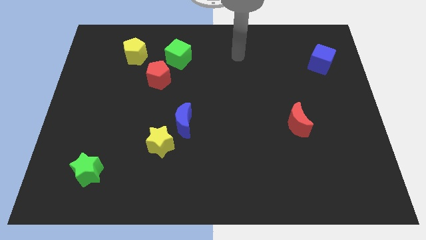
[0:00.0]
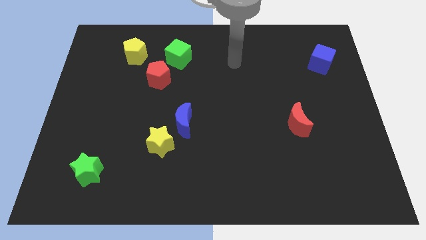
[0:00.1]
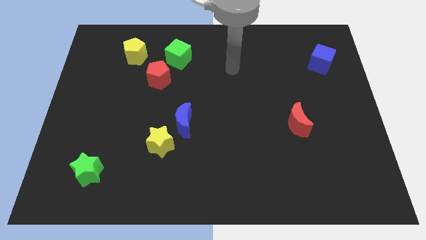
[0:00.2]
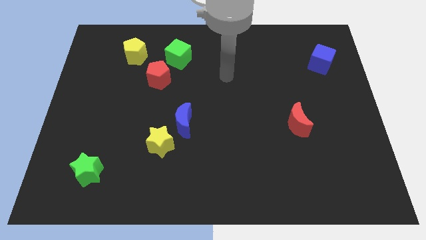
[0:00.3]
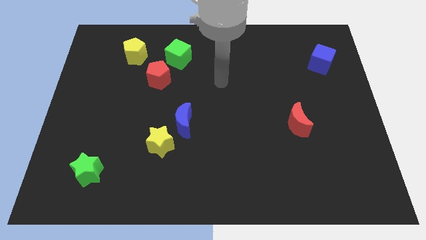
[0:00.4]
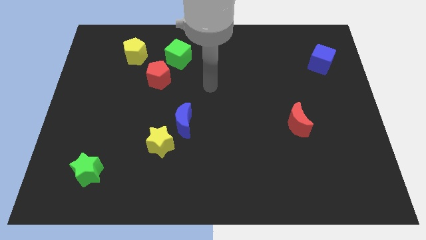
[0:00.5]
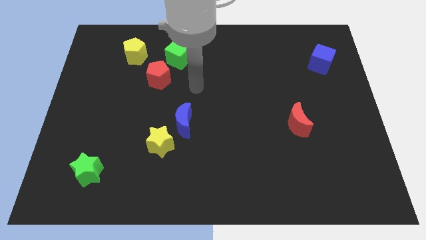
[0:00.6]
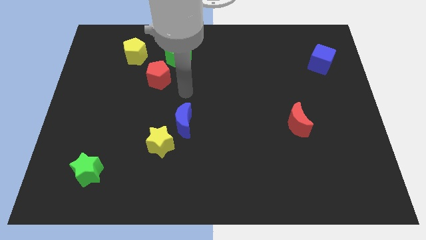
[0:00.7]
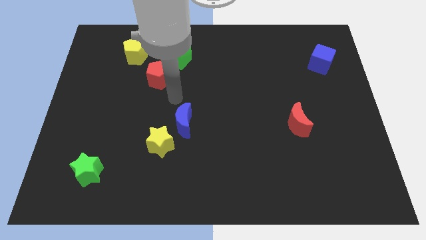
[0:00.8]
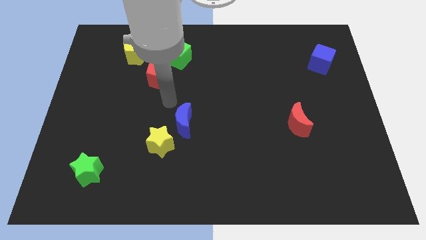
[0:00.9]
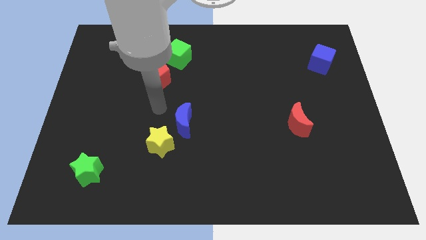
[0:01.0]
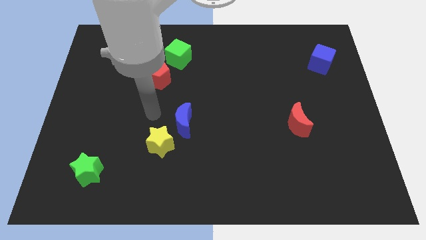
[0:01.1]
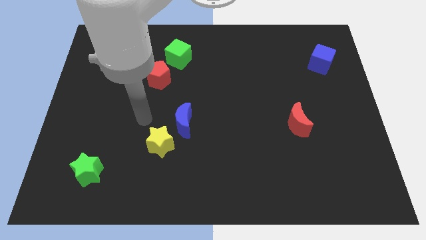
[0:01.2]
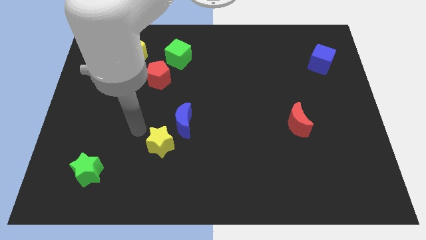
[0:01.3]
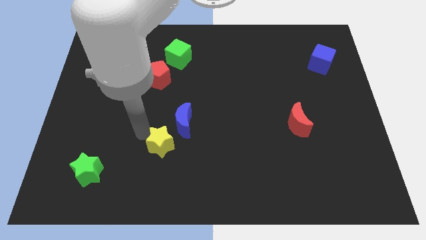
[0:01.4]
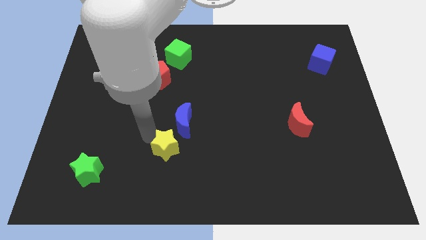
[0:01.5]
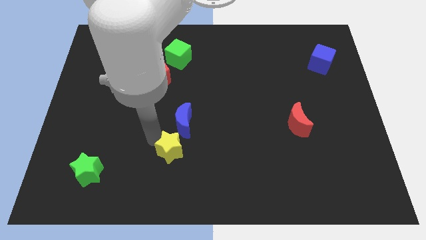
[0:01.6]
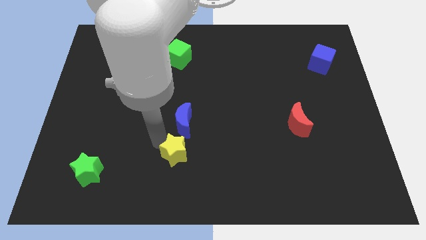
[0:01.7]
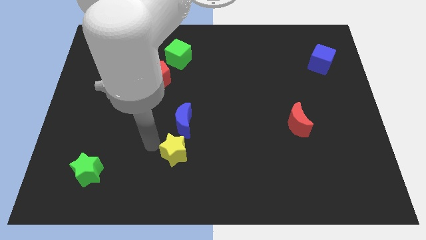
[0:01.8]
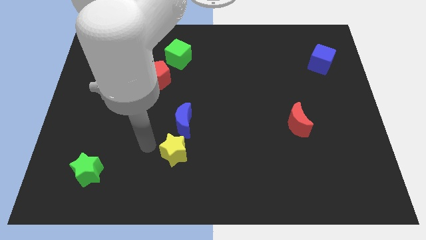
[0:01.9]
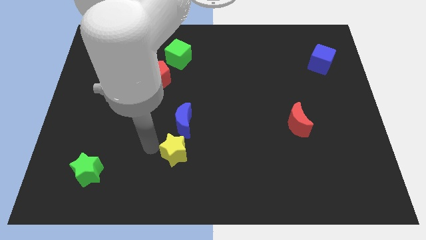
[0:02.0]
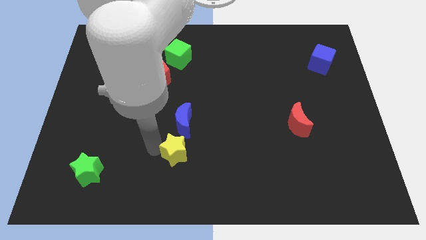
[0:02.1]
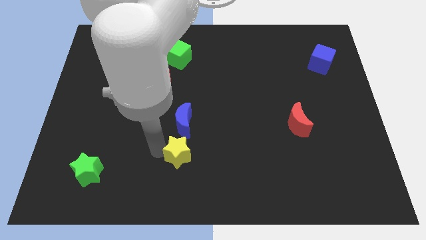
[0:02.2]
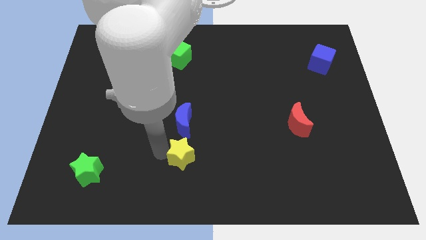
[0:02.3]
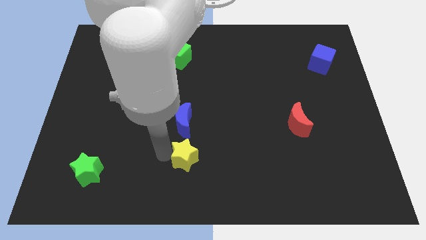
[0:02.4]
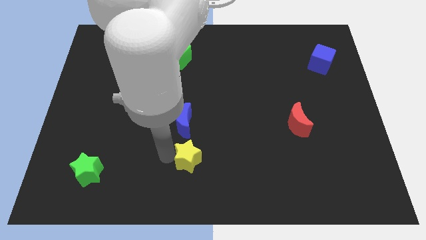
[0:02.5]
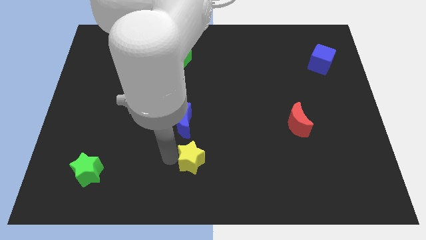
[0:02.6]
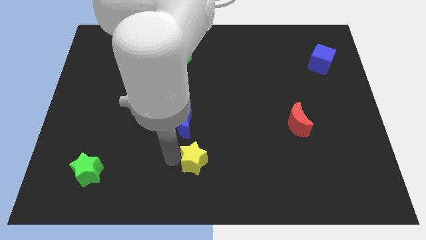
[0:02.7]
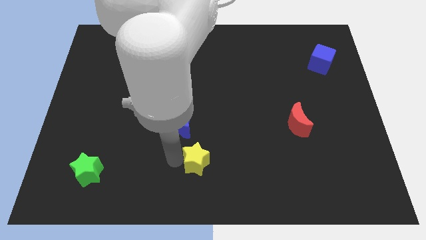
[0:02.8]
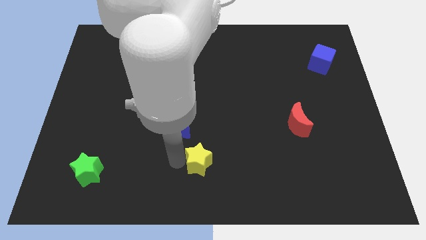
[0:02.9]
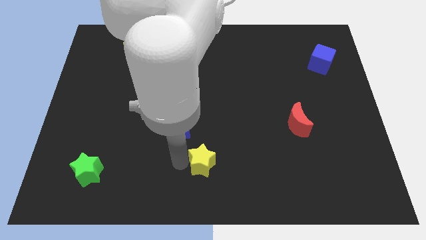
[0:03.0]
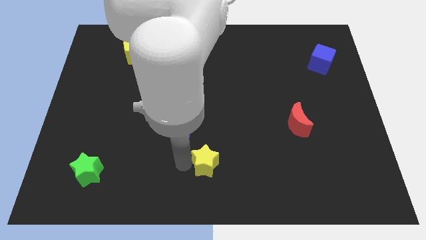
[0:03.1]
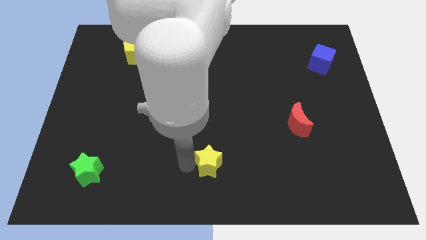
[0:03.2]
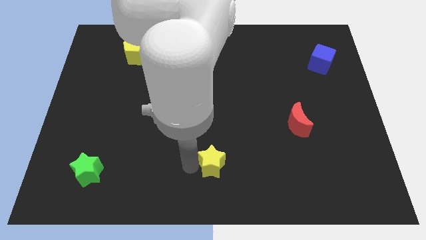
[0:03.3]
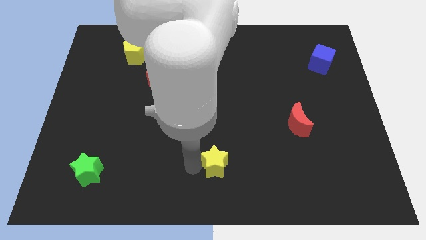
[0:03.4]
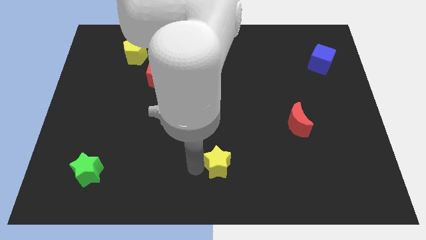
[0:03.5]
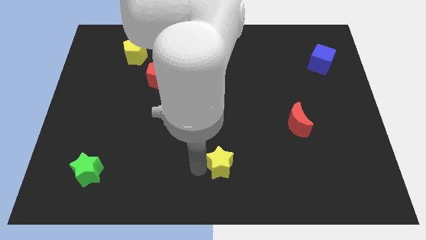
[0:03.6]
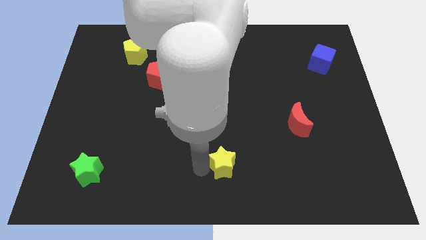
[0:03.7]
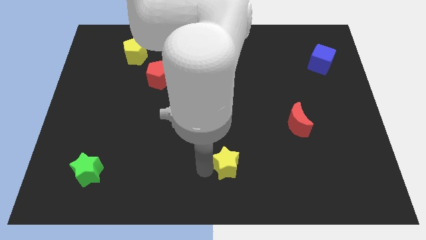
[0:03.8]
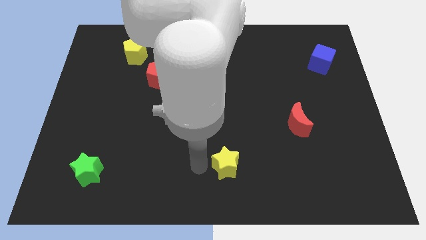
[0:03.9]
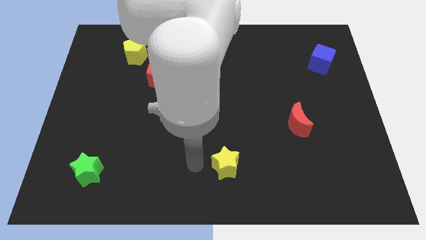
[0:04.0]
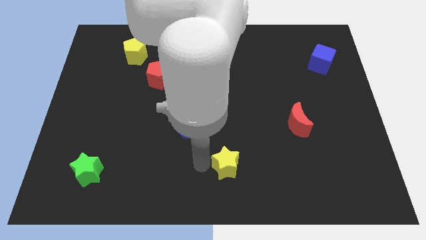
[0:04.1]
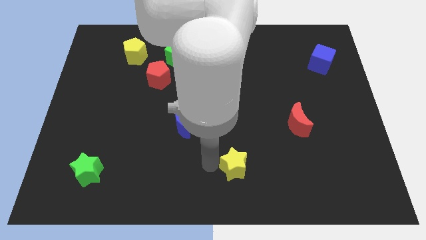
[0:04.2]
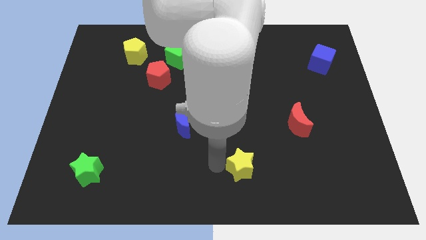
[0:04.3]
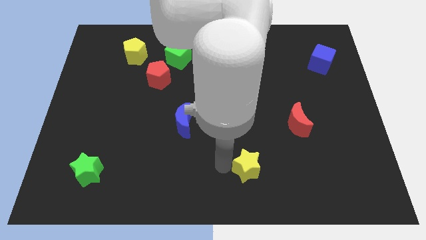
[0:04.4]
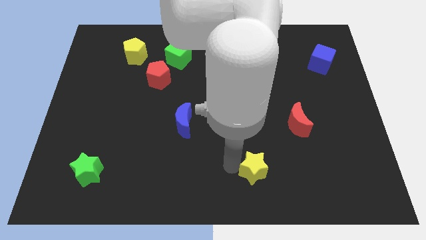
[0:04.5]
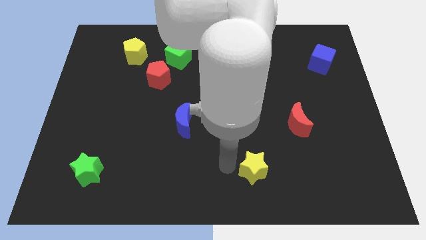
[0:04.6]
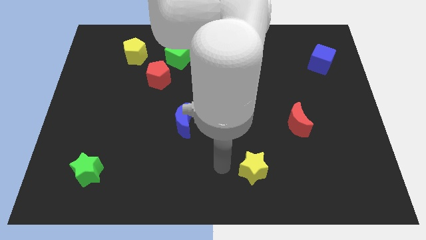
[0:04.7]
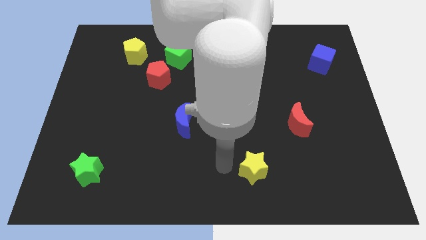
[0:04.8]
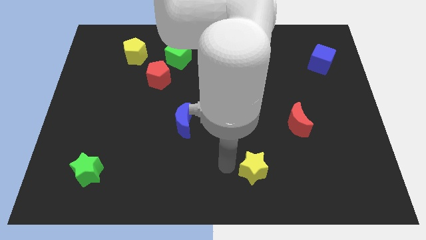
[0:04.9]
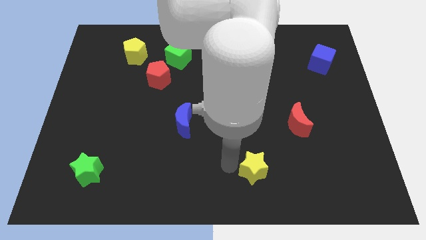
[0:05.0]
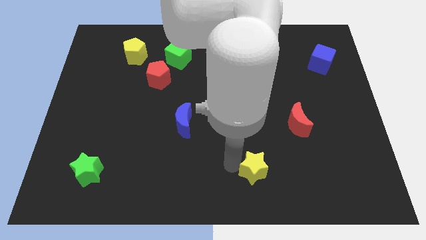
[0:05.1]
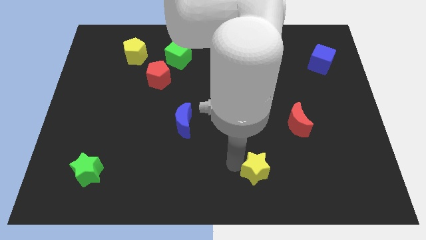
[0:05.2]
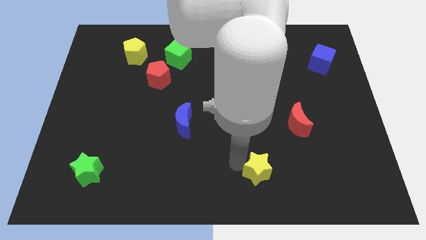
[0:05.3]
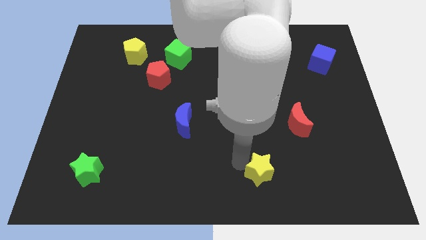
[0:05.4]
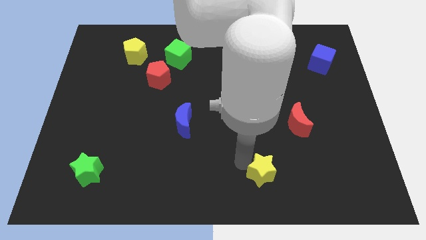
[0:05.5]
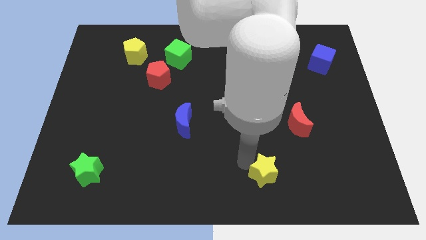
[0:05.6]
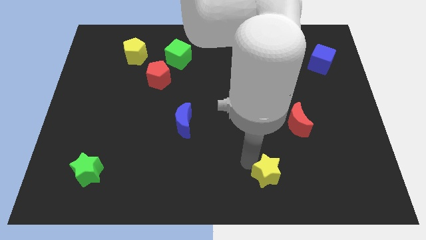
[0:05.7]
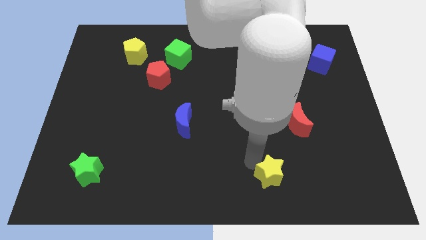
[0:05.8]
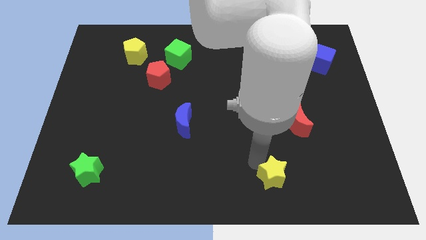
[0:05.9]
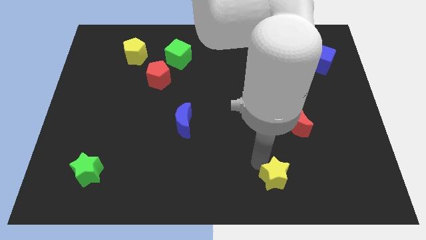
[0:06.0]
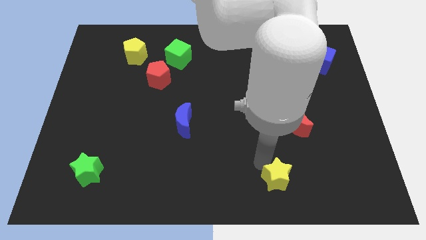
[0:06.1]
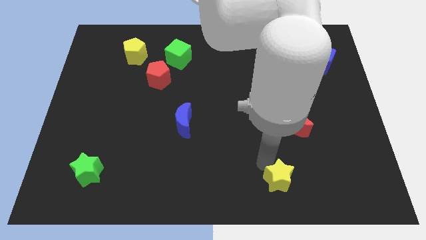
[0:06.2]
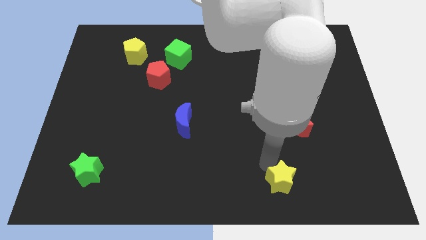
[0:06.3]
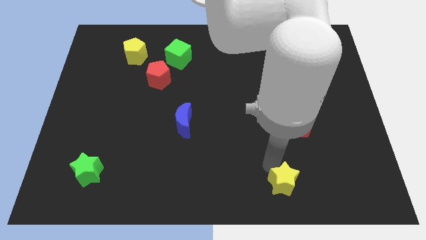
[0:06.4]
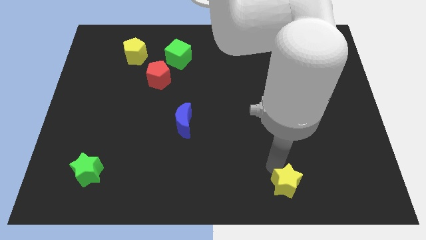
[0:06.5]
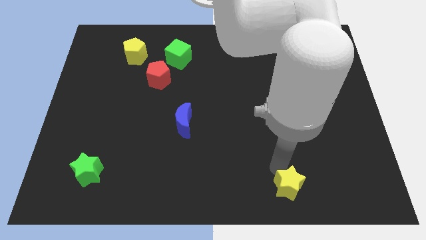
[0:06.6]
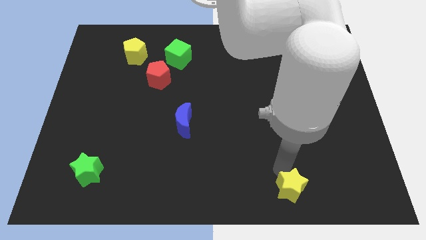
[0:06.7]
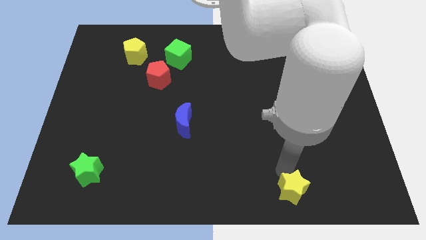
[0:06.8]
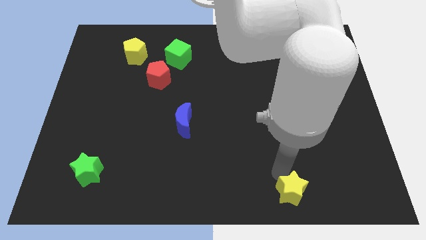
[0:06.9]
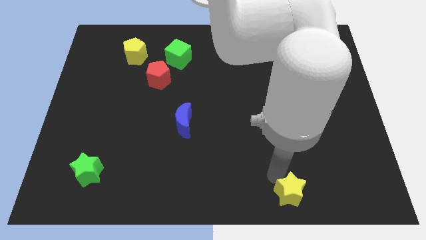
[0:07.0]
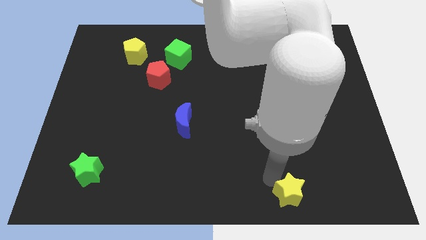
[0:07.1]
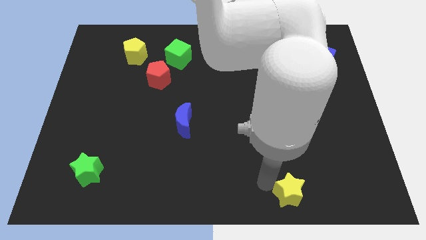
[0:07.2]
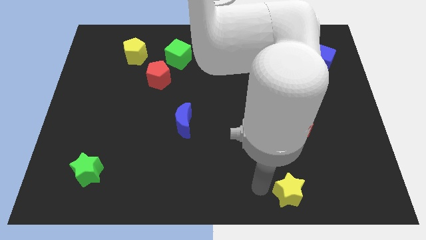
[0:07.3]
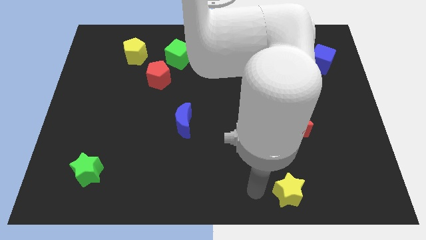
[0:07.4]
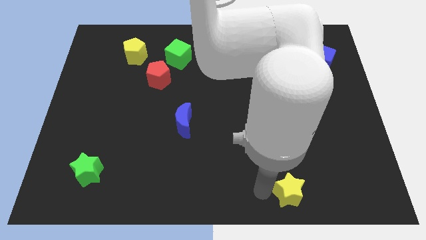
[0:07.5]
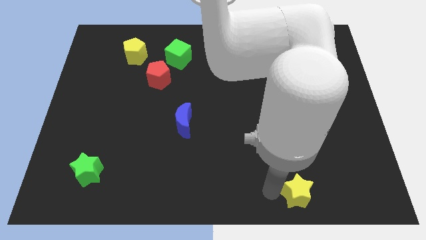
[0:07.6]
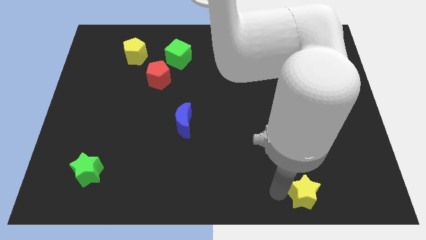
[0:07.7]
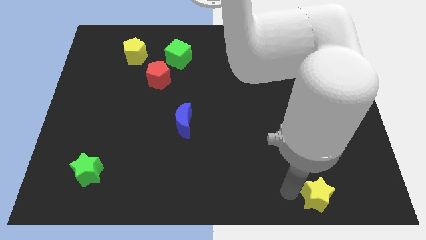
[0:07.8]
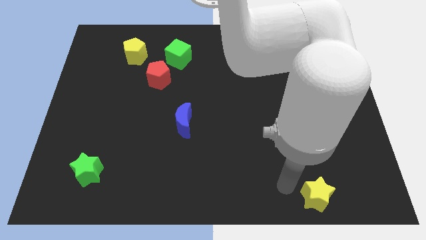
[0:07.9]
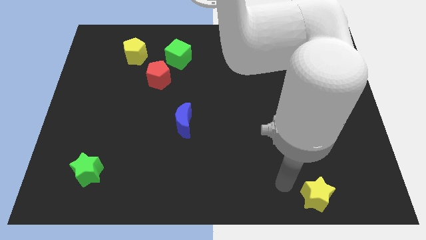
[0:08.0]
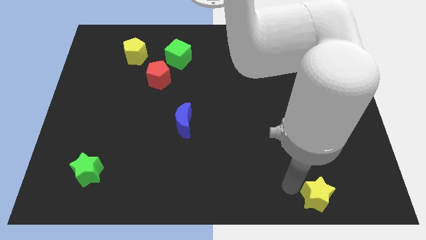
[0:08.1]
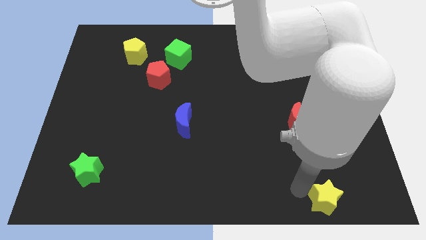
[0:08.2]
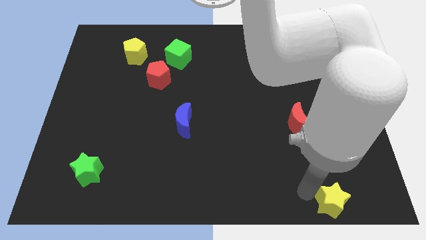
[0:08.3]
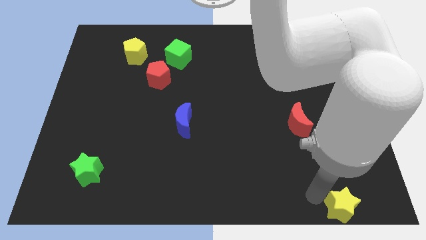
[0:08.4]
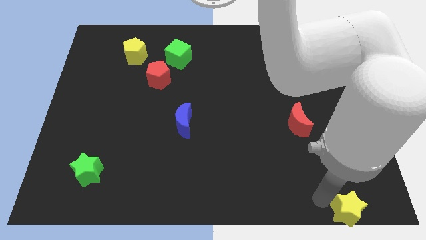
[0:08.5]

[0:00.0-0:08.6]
slide the yellow star to the lower right corner
